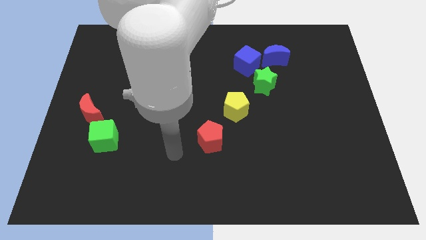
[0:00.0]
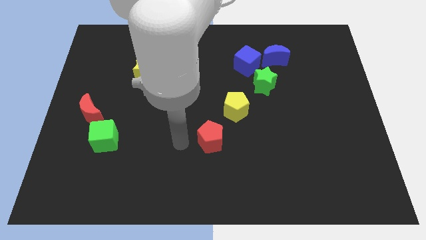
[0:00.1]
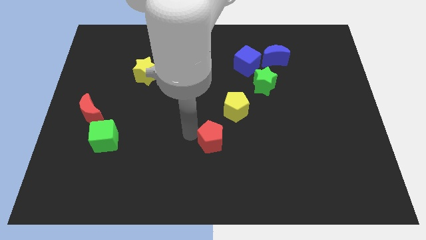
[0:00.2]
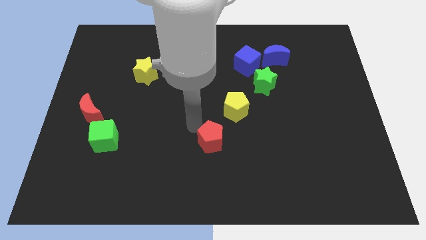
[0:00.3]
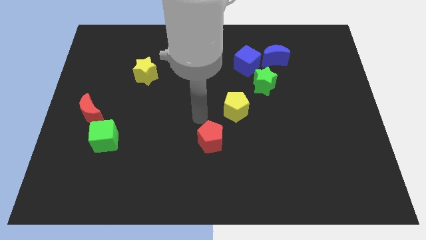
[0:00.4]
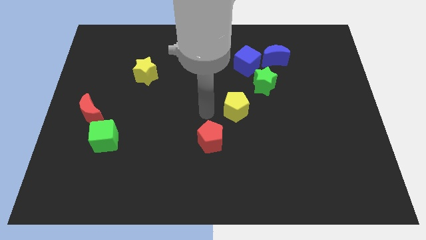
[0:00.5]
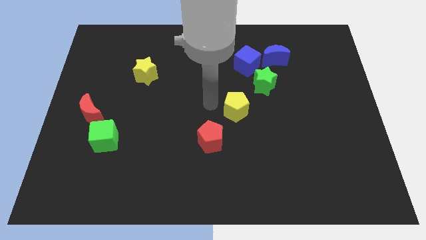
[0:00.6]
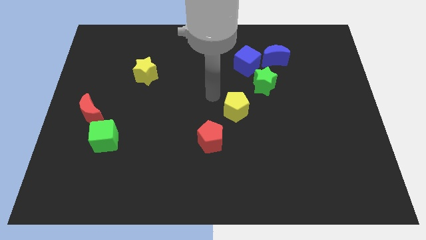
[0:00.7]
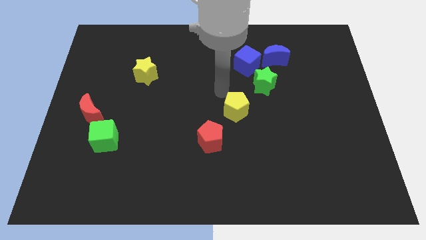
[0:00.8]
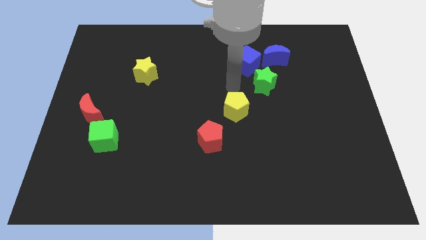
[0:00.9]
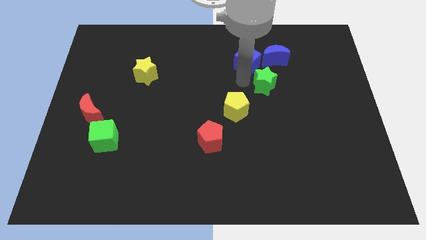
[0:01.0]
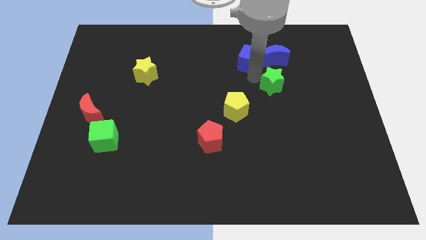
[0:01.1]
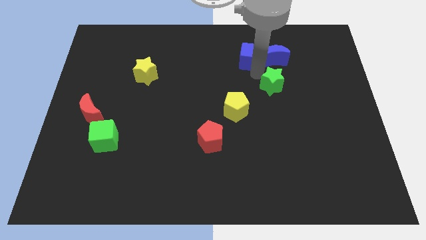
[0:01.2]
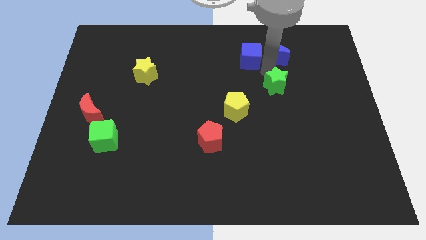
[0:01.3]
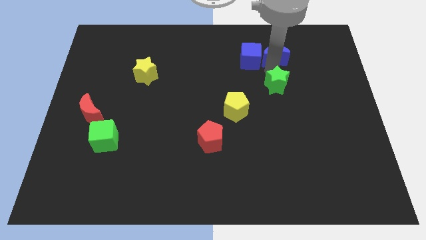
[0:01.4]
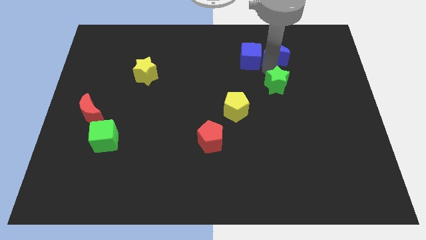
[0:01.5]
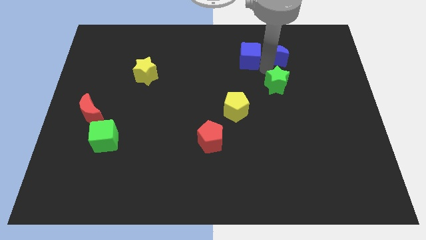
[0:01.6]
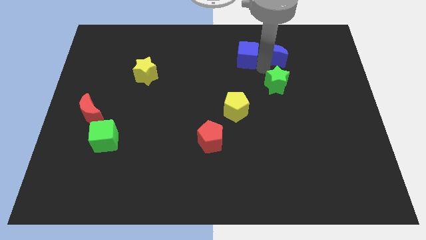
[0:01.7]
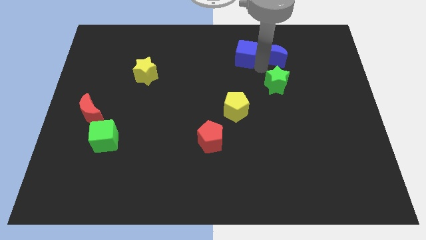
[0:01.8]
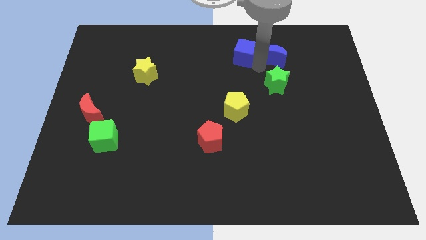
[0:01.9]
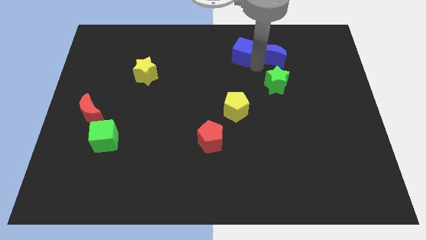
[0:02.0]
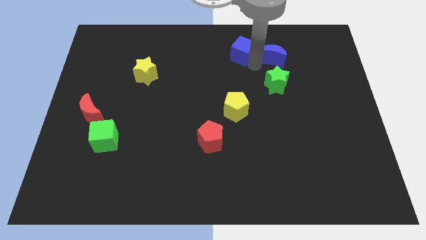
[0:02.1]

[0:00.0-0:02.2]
separate the blue cube from the blue moon and green star

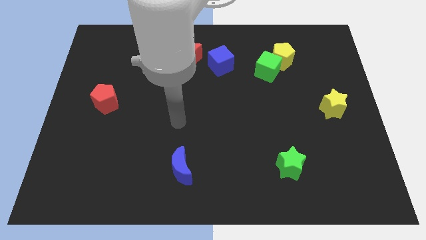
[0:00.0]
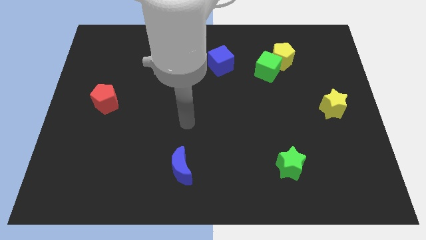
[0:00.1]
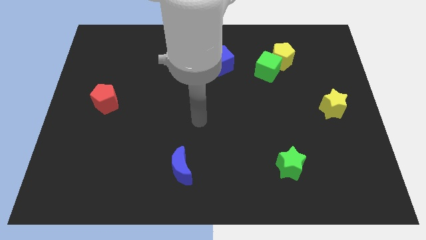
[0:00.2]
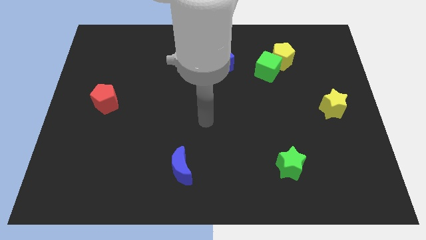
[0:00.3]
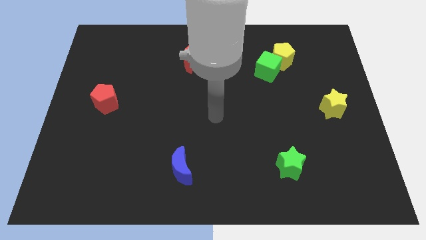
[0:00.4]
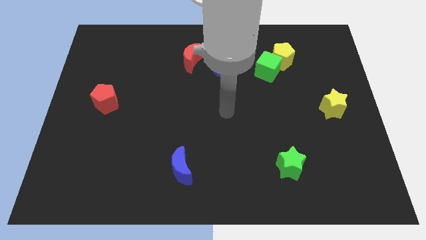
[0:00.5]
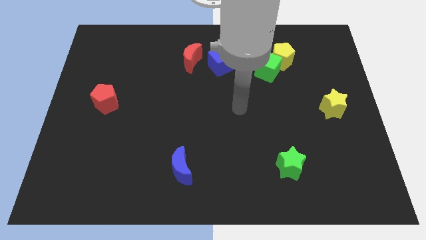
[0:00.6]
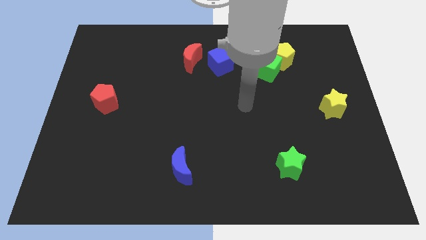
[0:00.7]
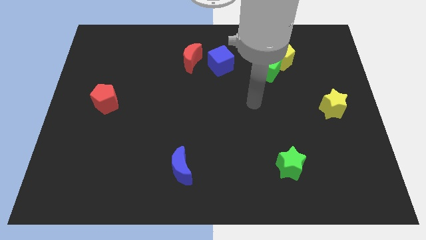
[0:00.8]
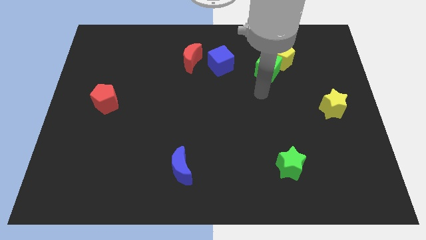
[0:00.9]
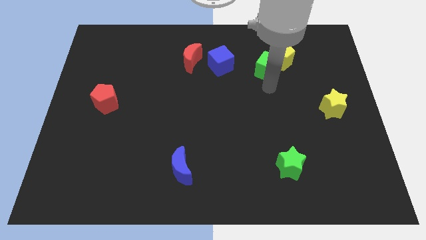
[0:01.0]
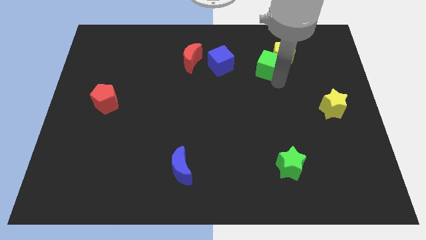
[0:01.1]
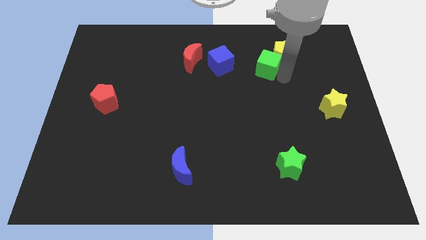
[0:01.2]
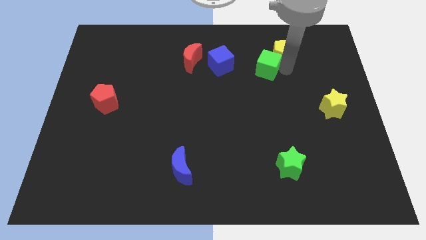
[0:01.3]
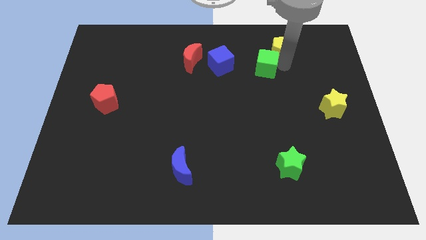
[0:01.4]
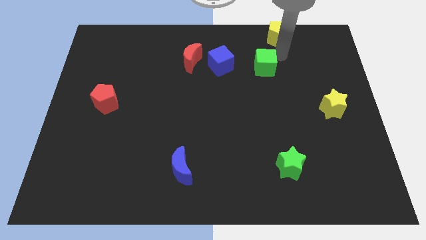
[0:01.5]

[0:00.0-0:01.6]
move the green cube away from the yellow pentagon

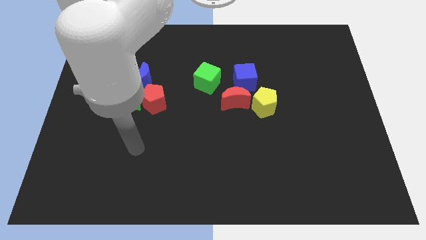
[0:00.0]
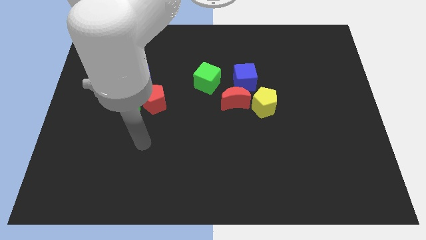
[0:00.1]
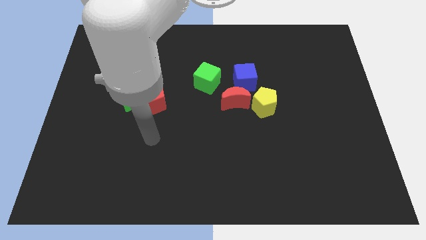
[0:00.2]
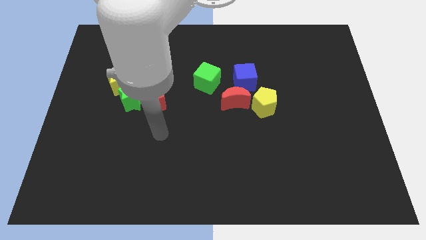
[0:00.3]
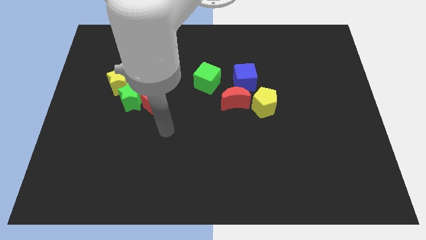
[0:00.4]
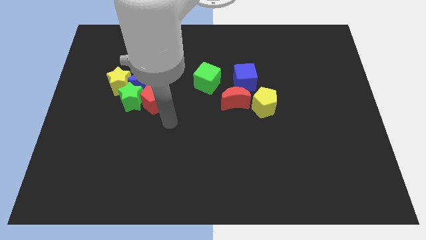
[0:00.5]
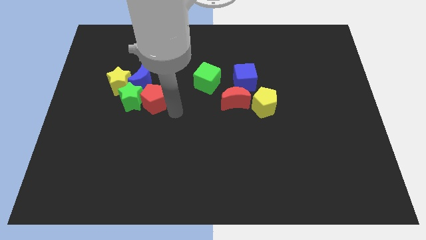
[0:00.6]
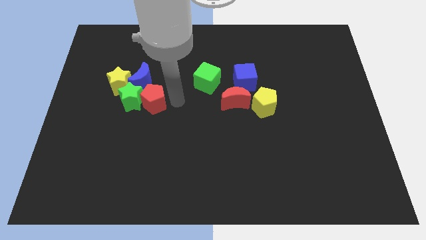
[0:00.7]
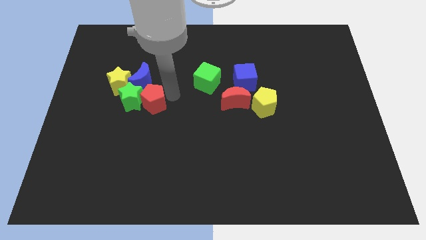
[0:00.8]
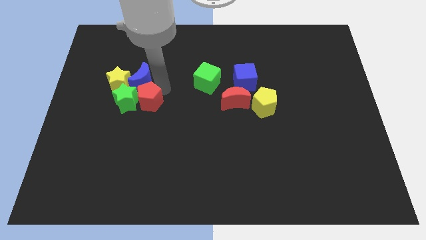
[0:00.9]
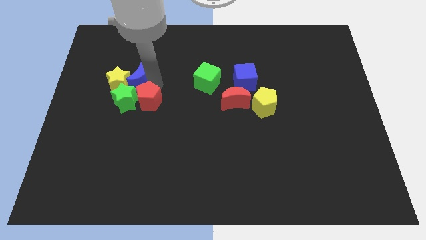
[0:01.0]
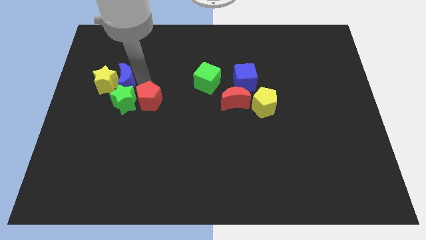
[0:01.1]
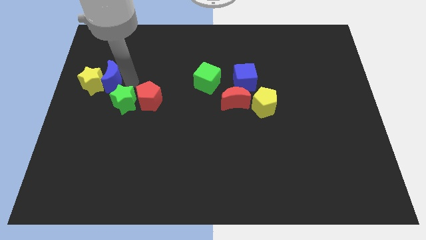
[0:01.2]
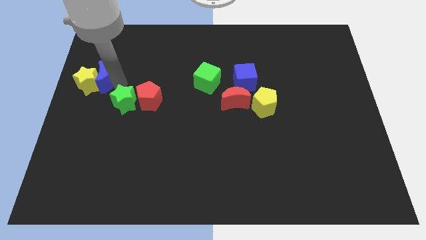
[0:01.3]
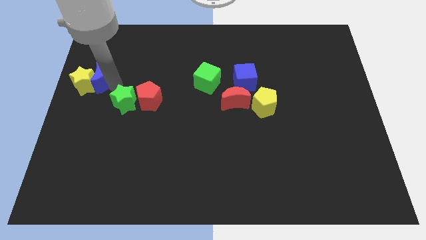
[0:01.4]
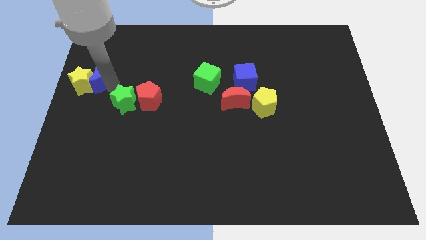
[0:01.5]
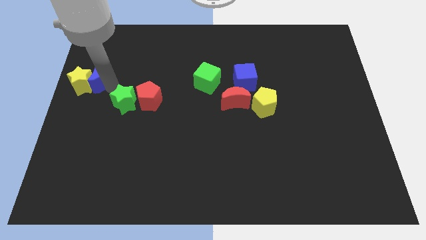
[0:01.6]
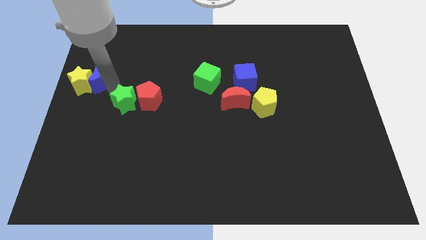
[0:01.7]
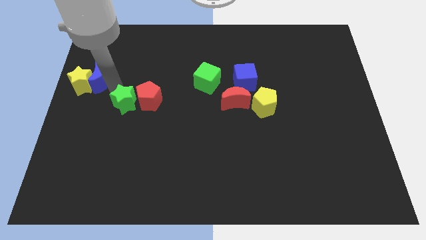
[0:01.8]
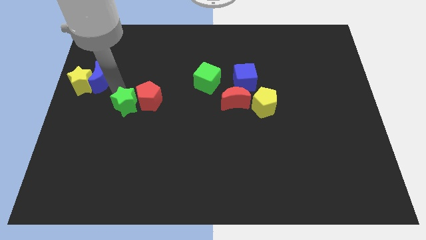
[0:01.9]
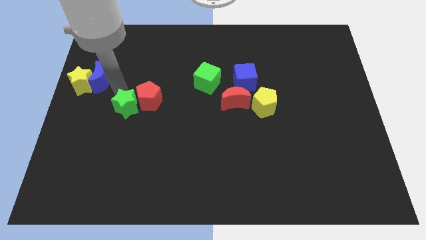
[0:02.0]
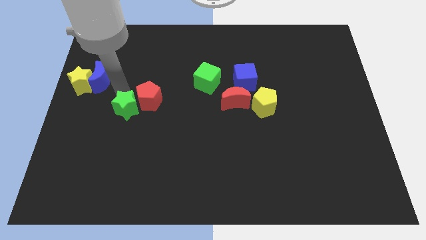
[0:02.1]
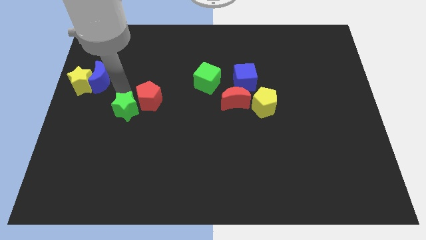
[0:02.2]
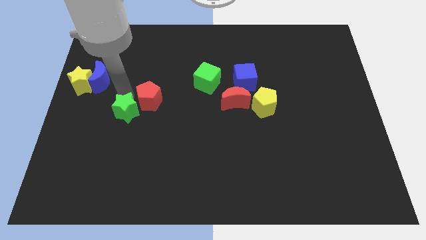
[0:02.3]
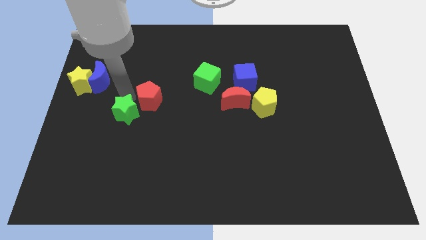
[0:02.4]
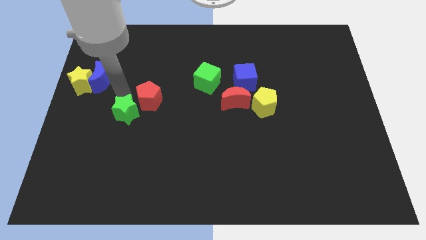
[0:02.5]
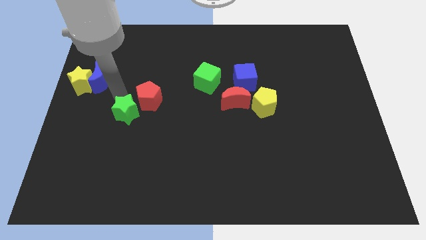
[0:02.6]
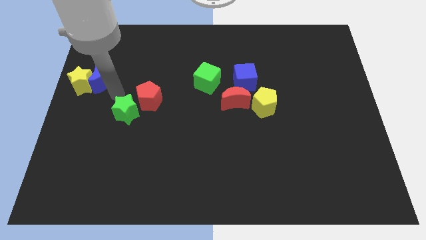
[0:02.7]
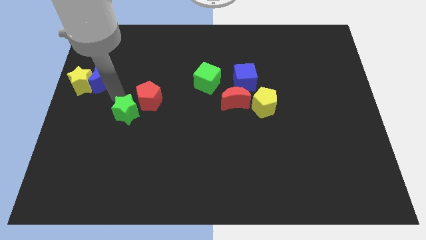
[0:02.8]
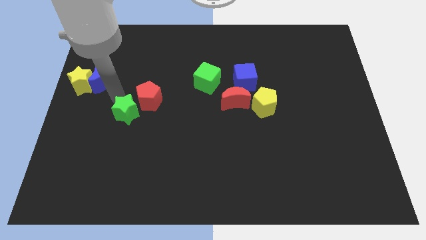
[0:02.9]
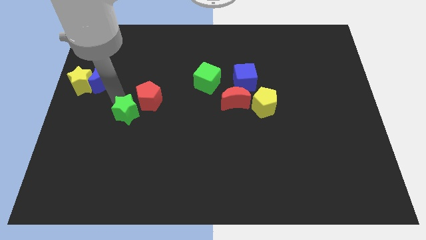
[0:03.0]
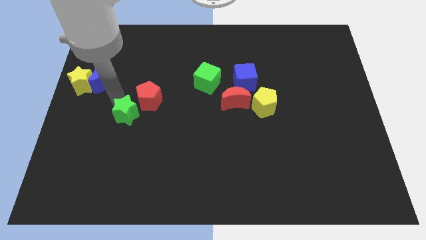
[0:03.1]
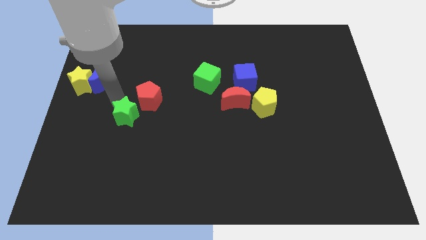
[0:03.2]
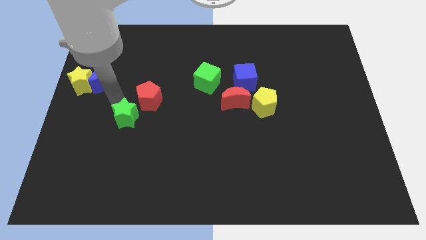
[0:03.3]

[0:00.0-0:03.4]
pull the green star apart from the clump

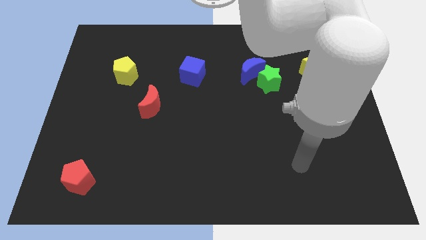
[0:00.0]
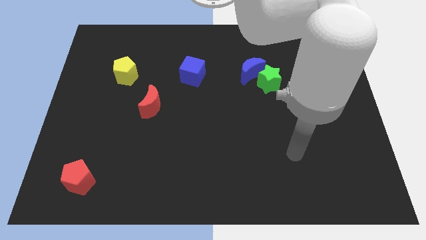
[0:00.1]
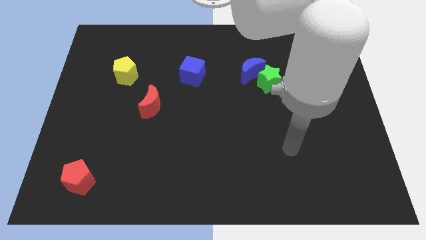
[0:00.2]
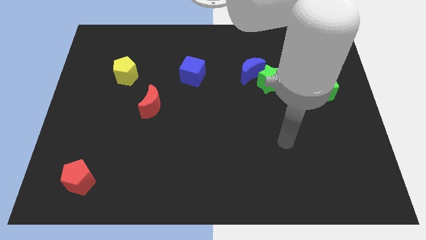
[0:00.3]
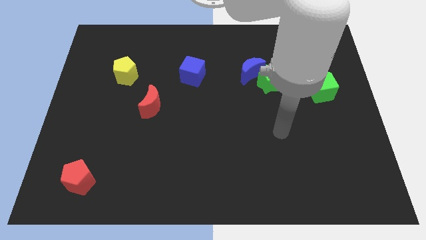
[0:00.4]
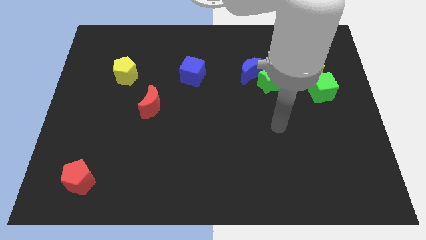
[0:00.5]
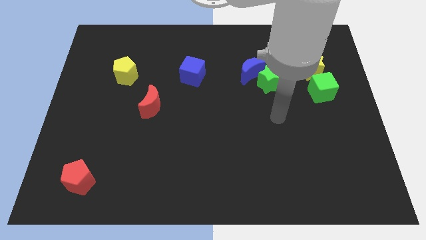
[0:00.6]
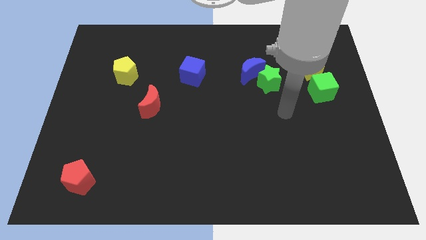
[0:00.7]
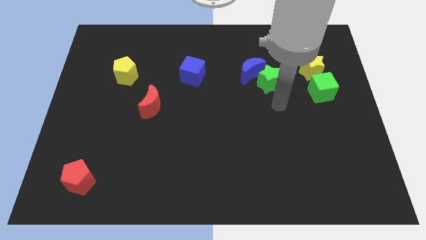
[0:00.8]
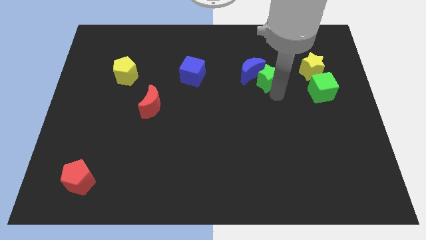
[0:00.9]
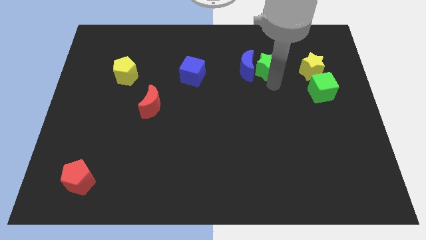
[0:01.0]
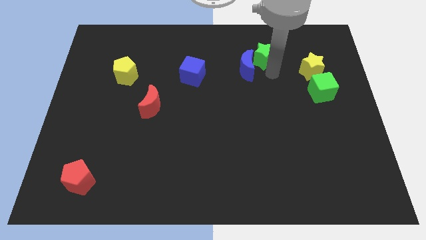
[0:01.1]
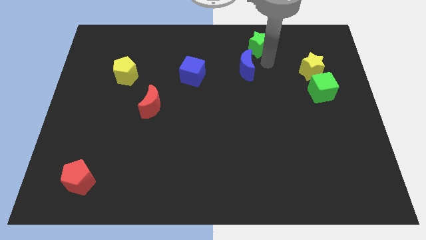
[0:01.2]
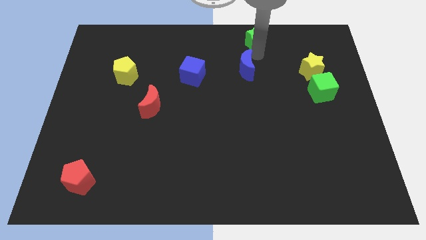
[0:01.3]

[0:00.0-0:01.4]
move the blue moon away from the green star

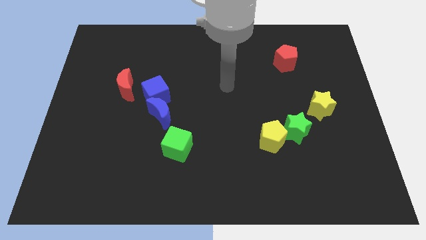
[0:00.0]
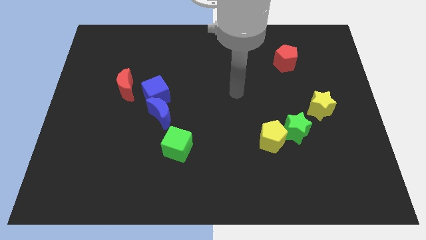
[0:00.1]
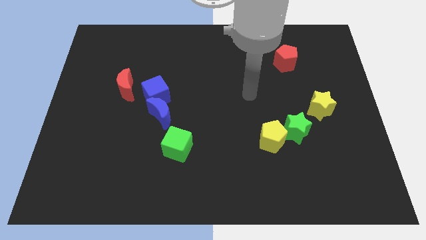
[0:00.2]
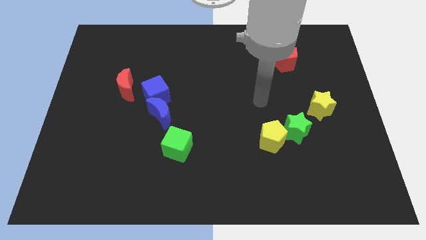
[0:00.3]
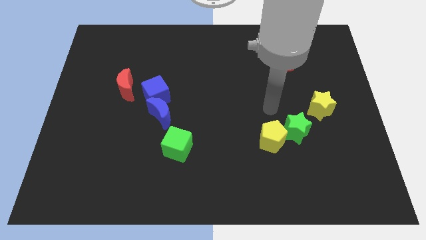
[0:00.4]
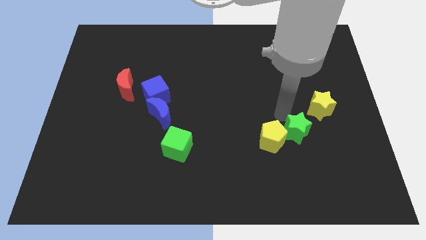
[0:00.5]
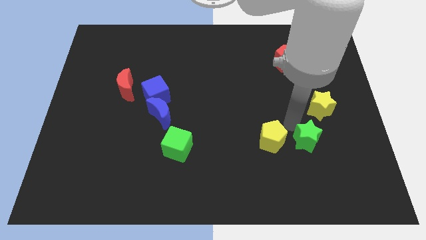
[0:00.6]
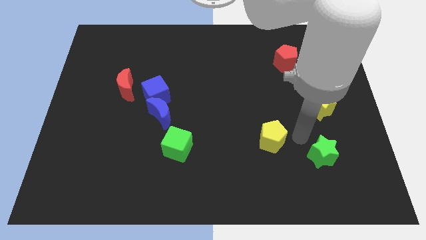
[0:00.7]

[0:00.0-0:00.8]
separate the yellow pentagon from the green star
